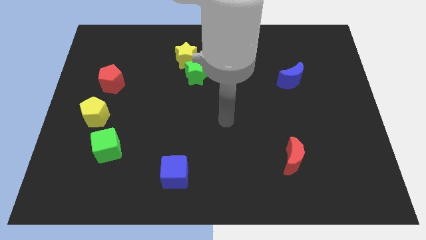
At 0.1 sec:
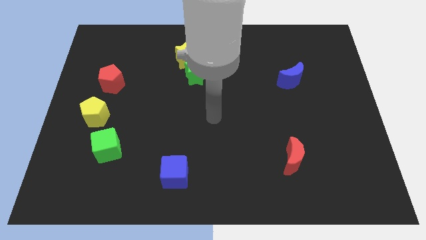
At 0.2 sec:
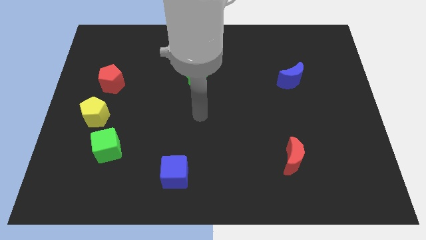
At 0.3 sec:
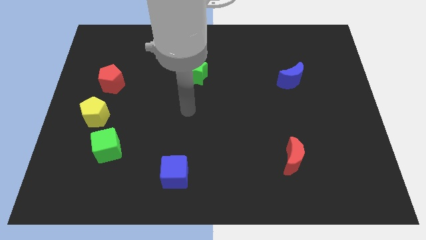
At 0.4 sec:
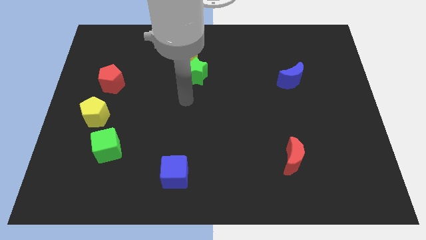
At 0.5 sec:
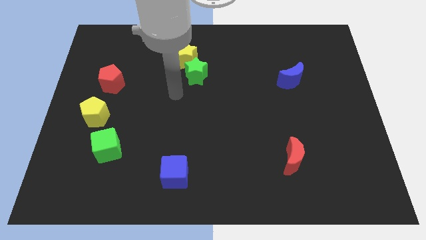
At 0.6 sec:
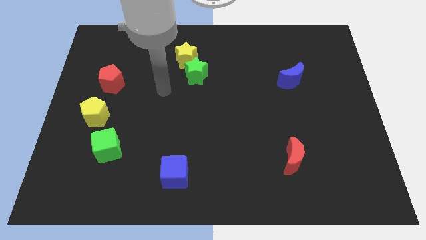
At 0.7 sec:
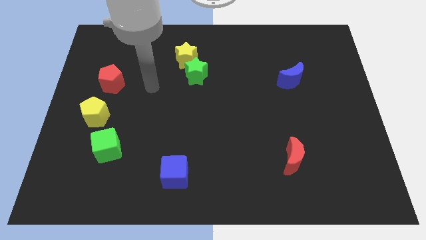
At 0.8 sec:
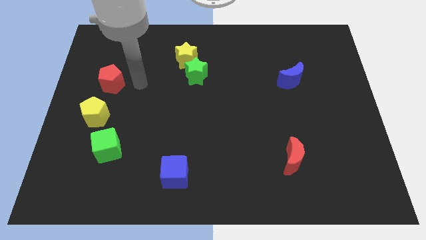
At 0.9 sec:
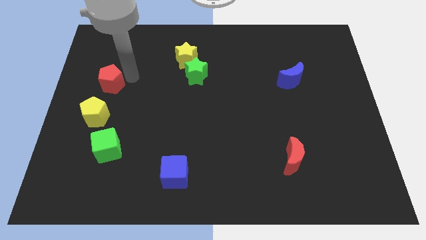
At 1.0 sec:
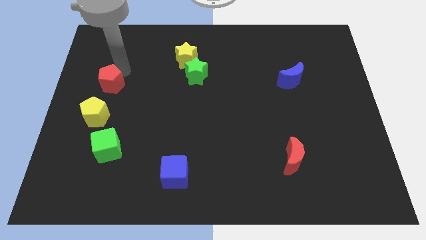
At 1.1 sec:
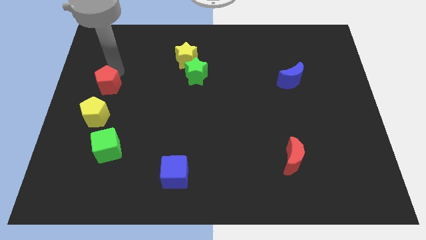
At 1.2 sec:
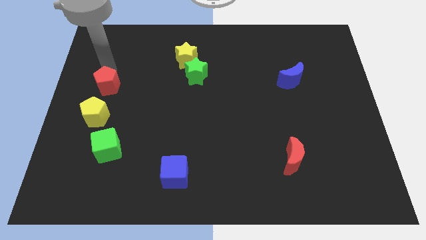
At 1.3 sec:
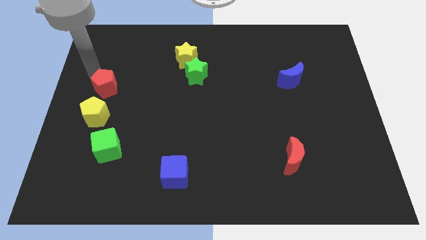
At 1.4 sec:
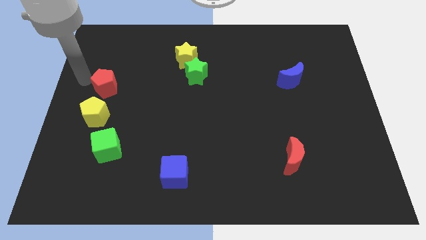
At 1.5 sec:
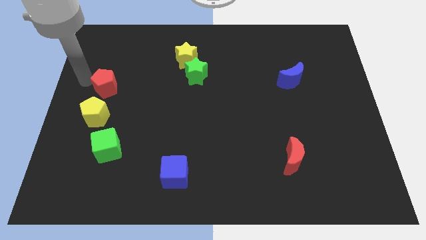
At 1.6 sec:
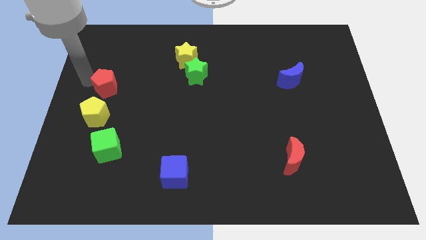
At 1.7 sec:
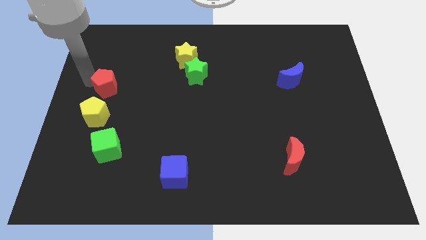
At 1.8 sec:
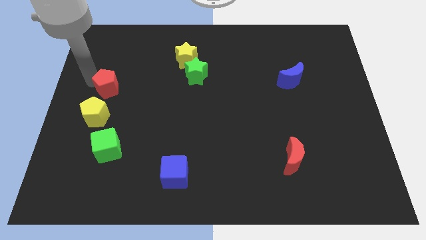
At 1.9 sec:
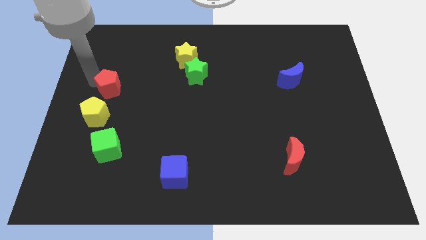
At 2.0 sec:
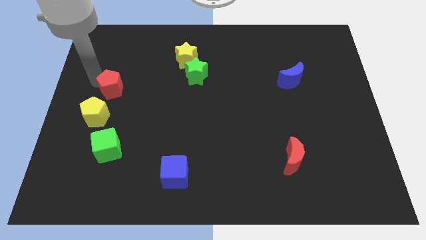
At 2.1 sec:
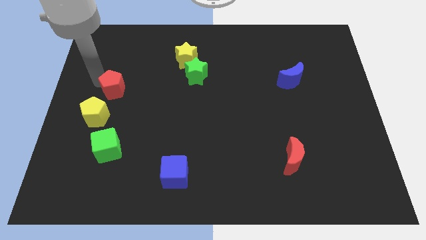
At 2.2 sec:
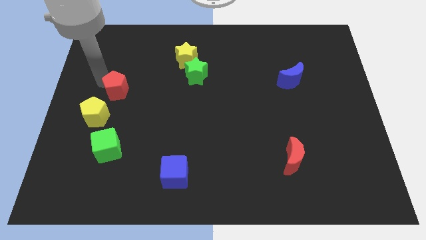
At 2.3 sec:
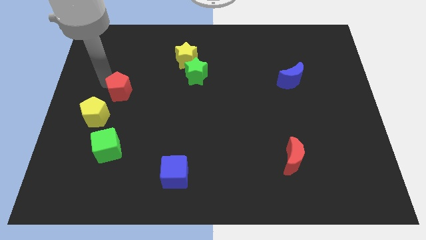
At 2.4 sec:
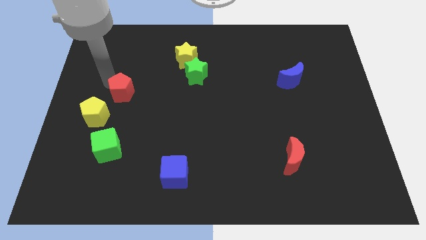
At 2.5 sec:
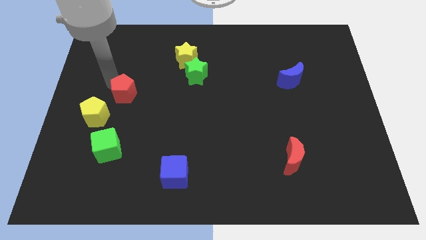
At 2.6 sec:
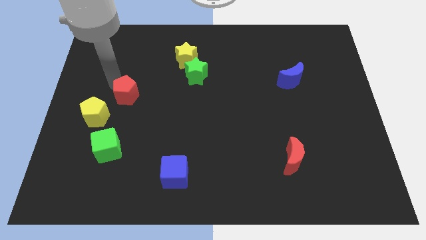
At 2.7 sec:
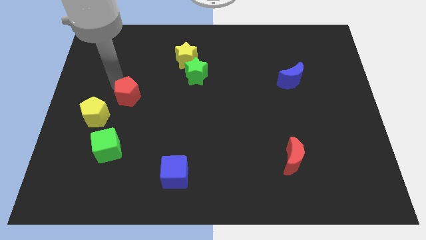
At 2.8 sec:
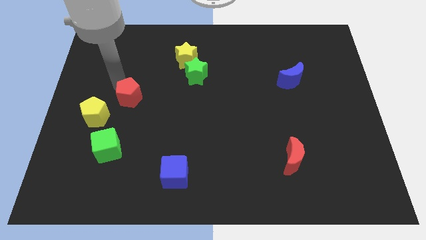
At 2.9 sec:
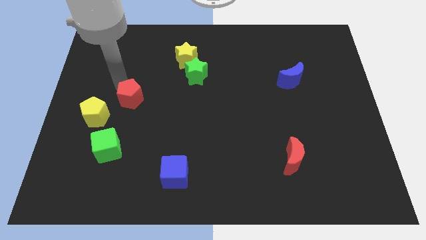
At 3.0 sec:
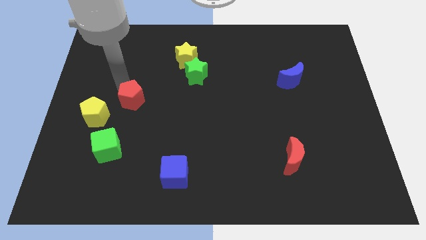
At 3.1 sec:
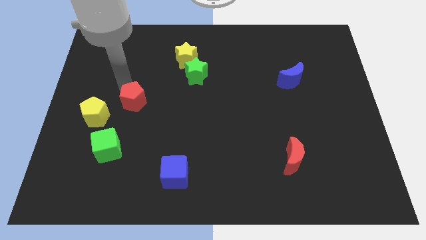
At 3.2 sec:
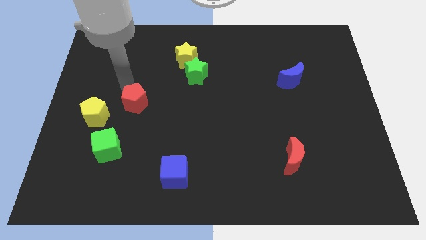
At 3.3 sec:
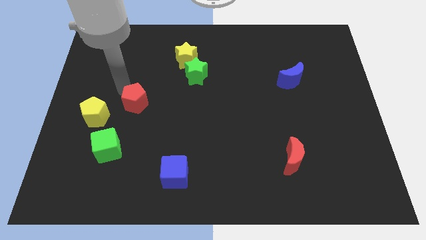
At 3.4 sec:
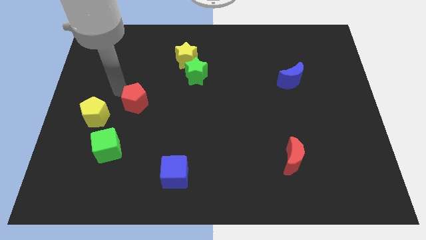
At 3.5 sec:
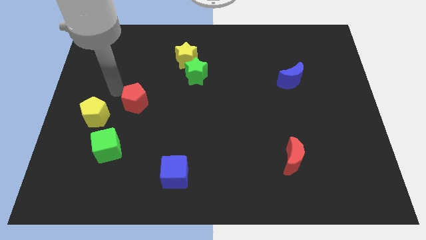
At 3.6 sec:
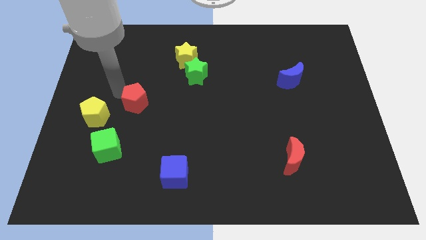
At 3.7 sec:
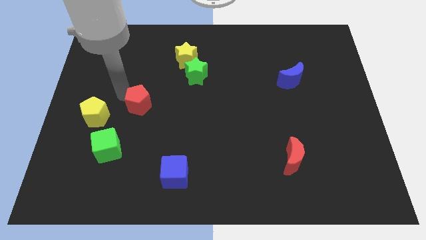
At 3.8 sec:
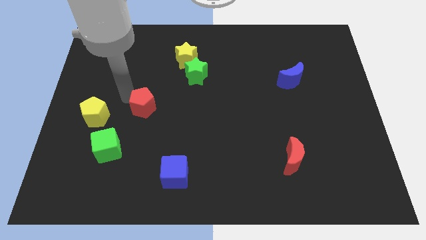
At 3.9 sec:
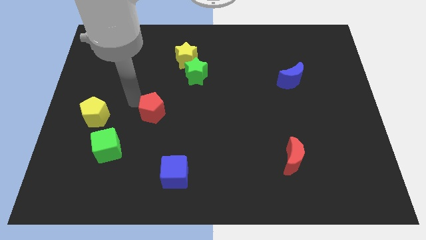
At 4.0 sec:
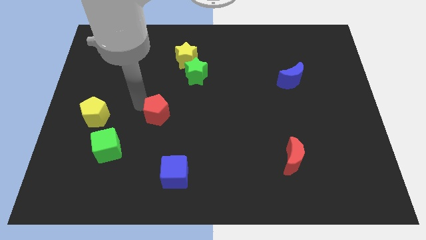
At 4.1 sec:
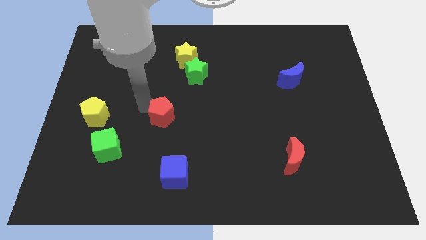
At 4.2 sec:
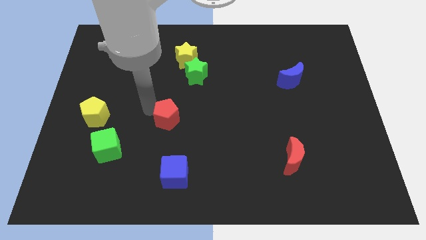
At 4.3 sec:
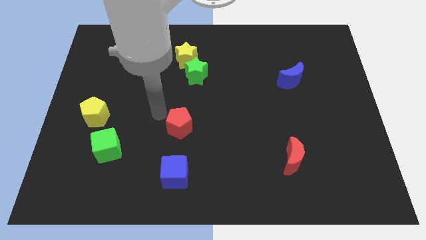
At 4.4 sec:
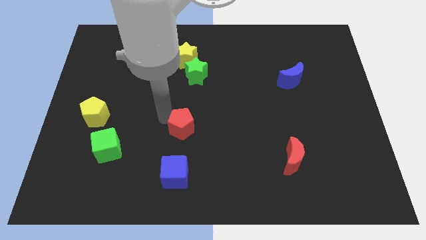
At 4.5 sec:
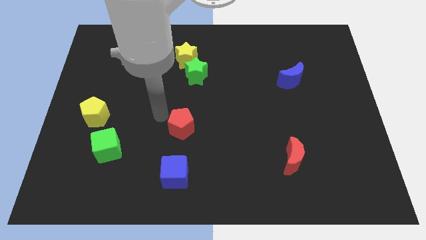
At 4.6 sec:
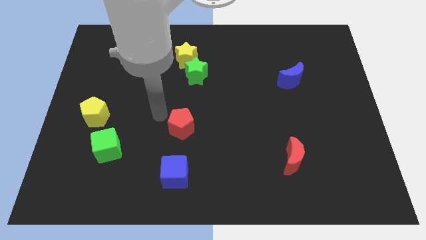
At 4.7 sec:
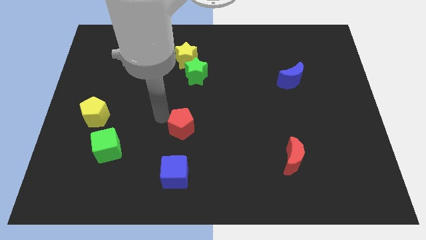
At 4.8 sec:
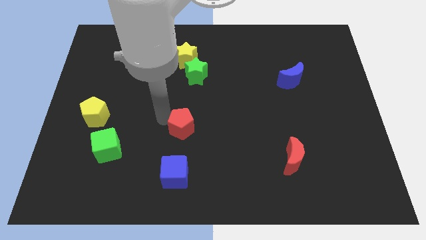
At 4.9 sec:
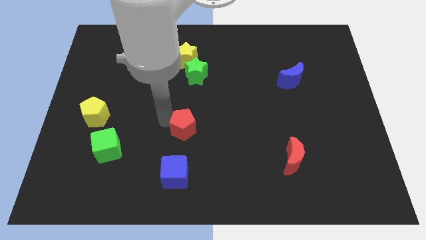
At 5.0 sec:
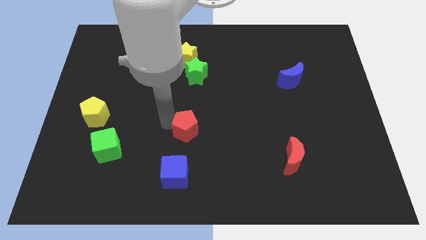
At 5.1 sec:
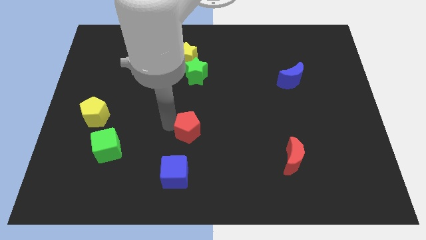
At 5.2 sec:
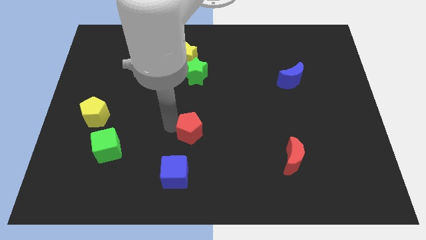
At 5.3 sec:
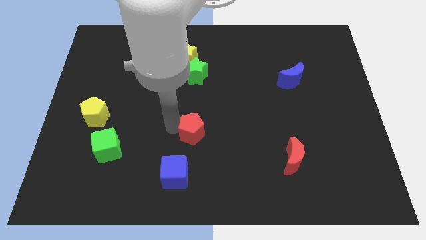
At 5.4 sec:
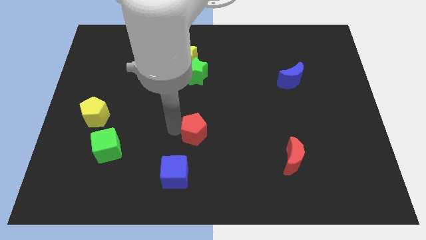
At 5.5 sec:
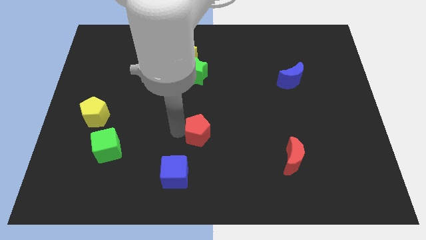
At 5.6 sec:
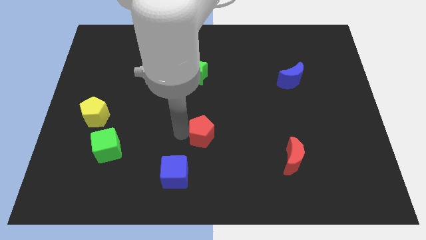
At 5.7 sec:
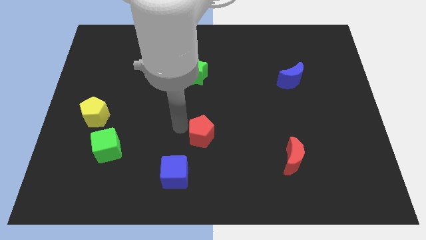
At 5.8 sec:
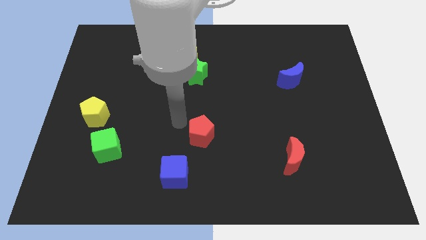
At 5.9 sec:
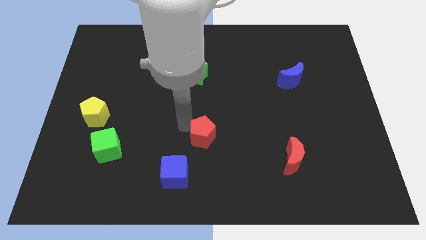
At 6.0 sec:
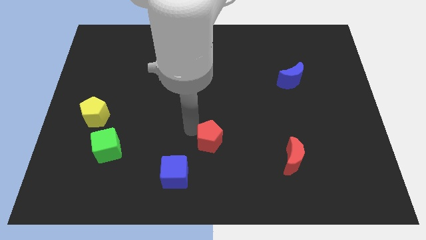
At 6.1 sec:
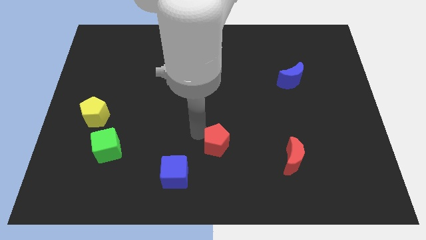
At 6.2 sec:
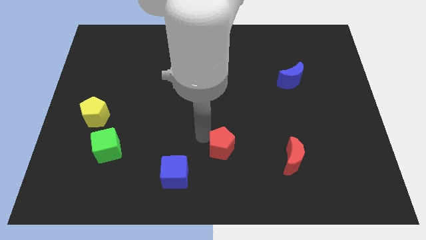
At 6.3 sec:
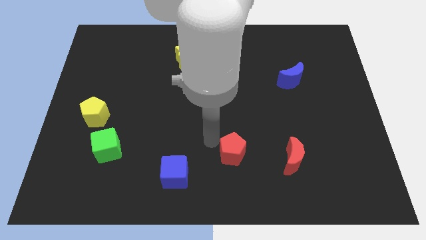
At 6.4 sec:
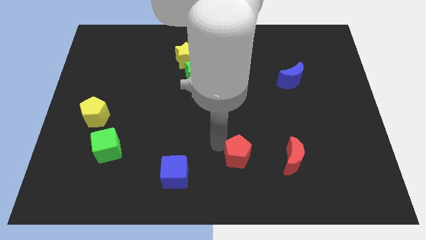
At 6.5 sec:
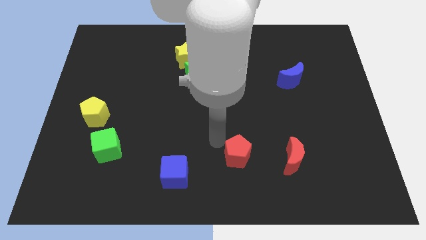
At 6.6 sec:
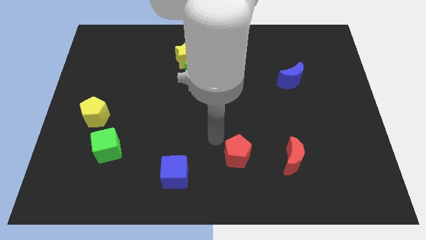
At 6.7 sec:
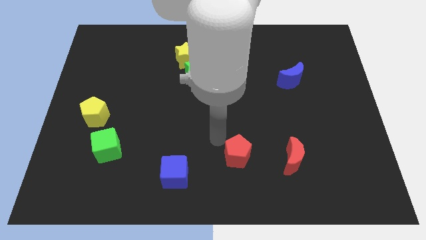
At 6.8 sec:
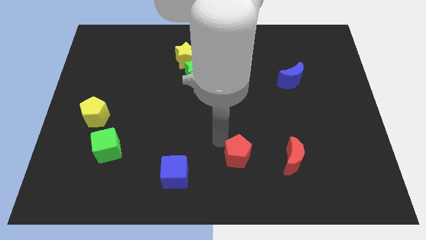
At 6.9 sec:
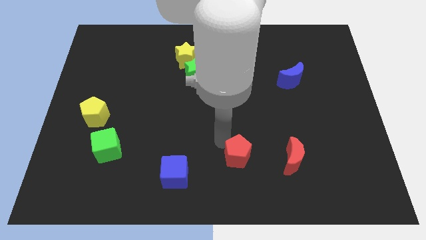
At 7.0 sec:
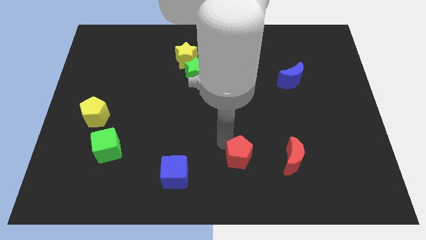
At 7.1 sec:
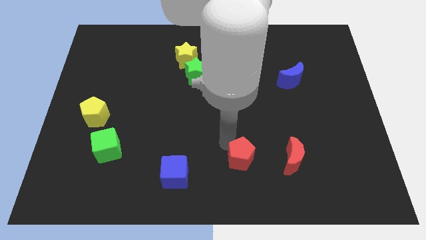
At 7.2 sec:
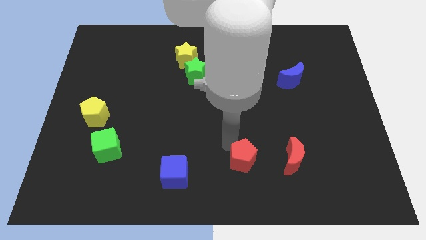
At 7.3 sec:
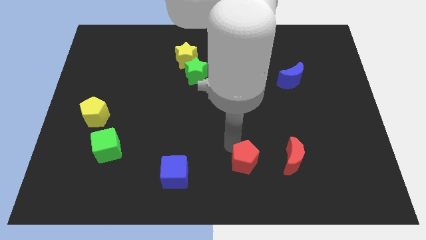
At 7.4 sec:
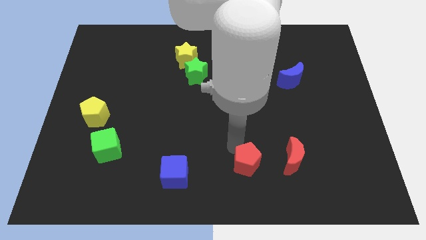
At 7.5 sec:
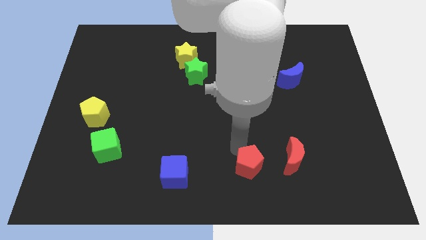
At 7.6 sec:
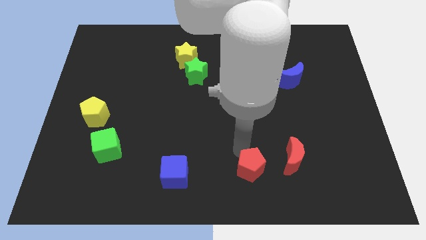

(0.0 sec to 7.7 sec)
push the red pentagon to the bottom left side of the red moon
